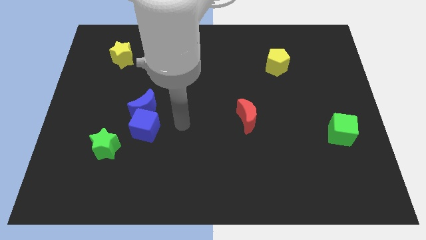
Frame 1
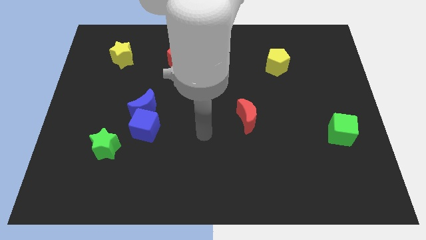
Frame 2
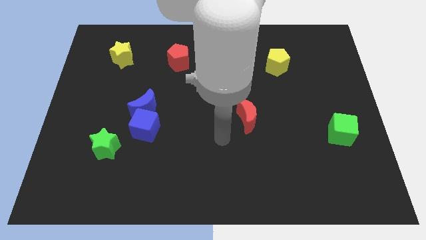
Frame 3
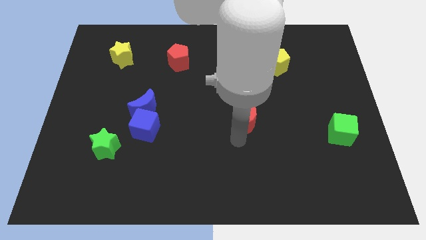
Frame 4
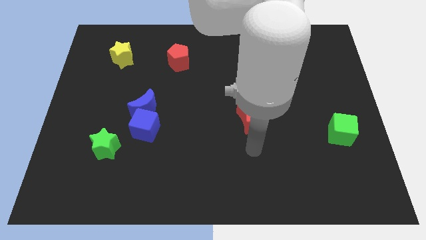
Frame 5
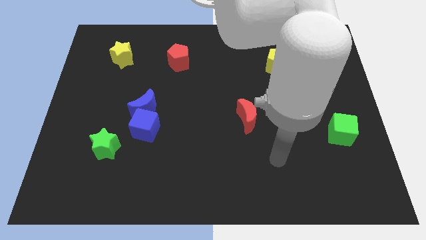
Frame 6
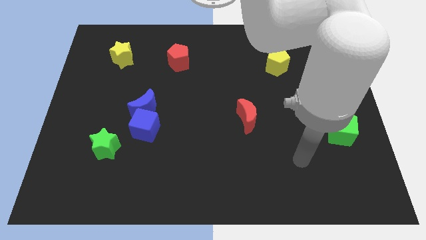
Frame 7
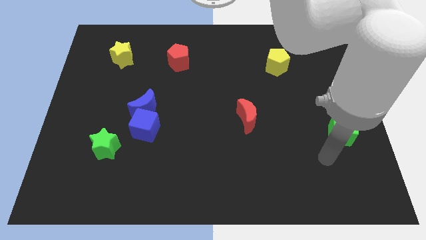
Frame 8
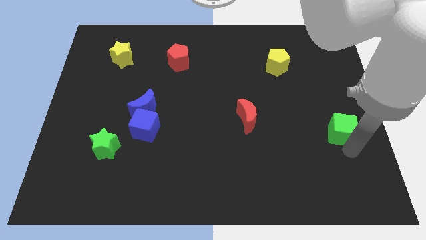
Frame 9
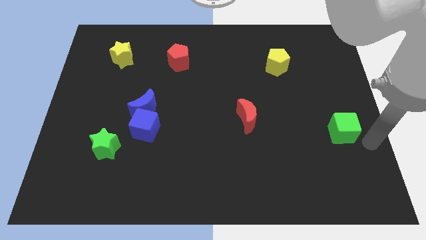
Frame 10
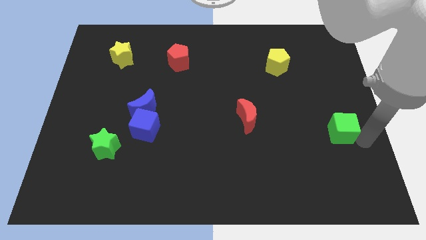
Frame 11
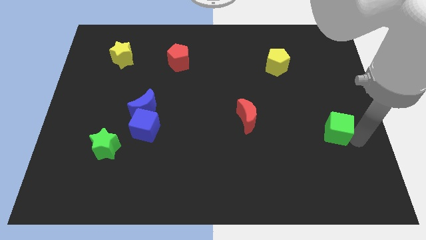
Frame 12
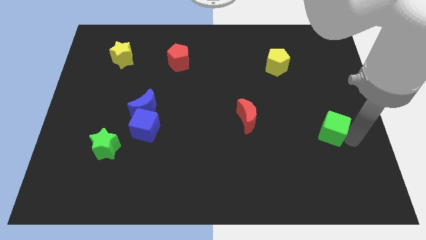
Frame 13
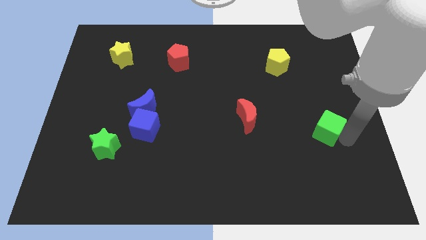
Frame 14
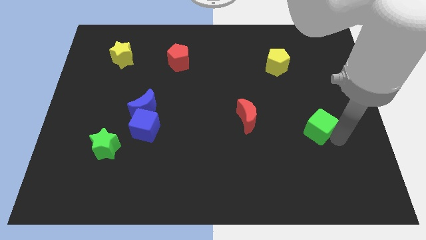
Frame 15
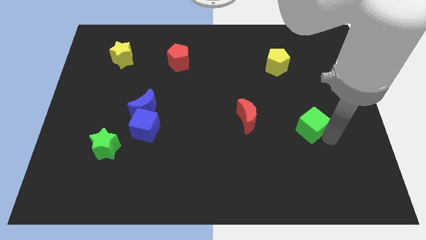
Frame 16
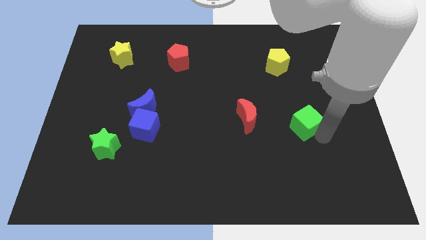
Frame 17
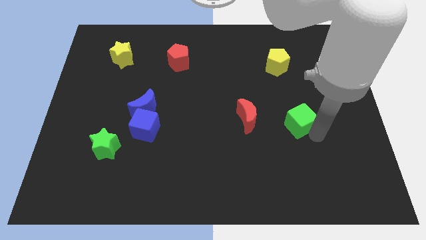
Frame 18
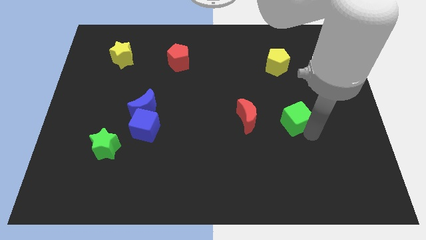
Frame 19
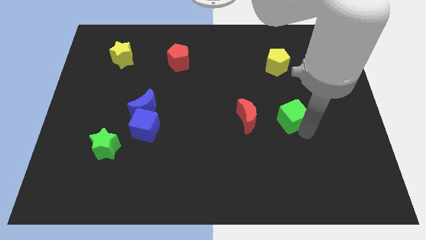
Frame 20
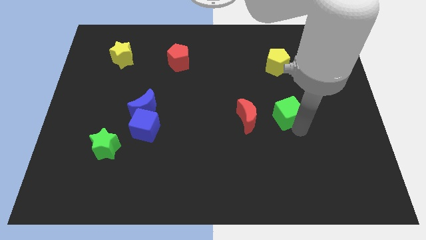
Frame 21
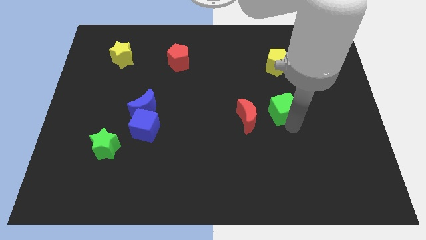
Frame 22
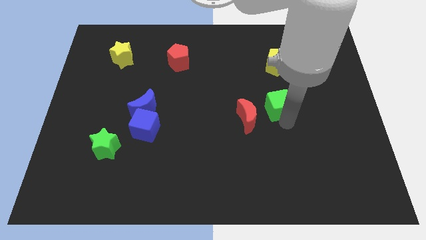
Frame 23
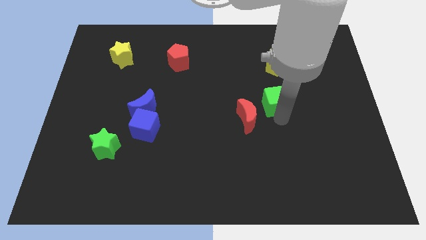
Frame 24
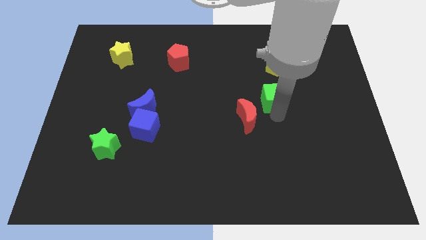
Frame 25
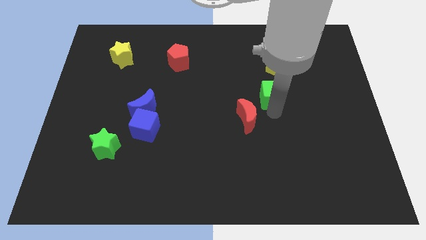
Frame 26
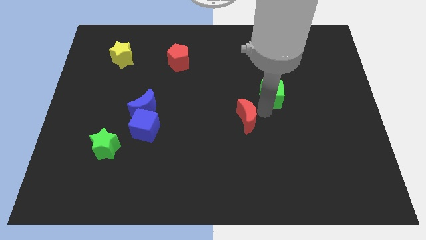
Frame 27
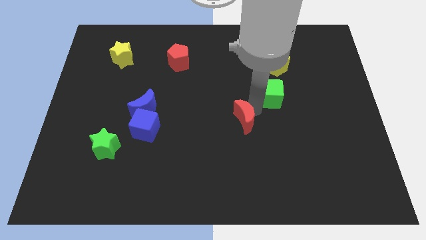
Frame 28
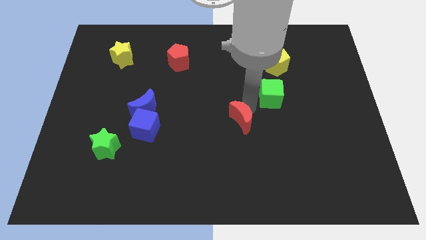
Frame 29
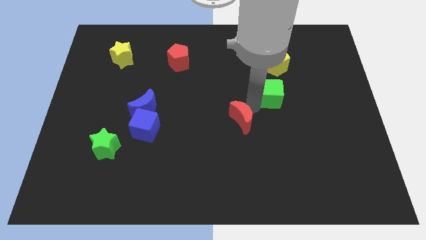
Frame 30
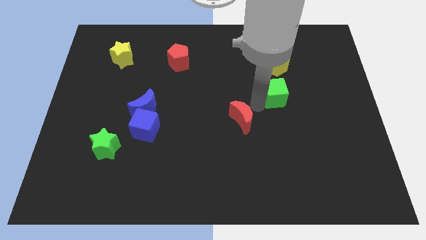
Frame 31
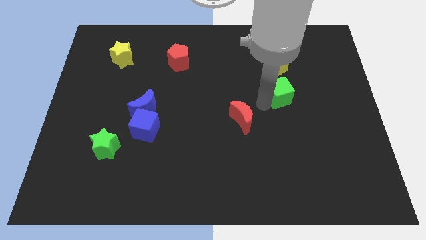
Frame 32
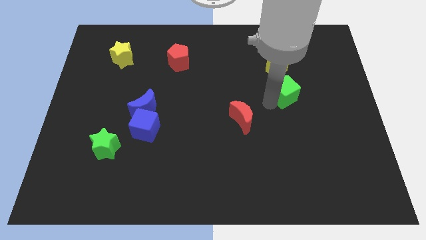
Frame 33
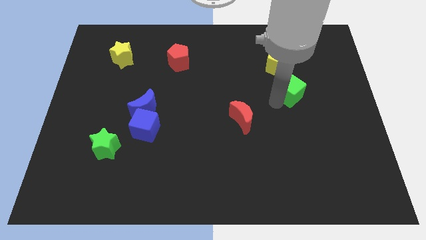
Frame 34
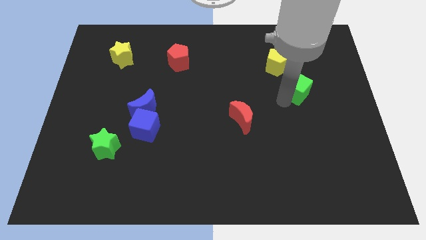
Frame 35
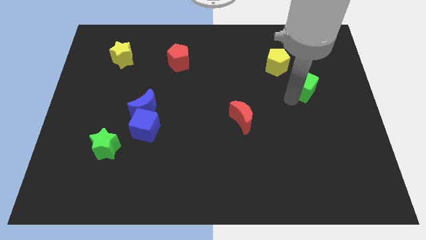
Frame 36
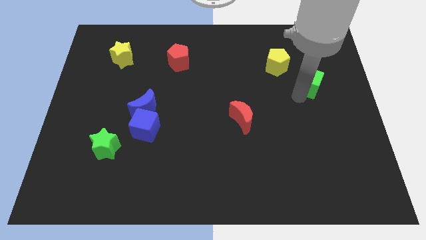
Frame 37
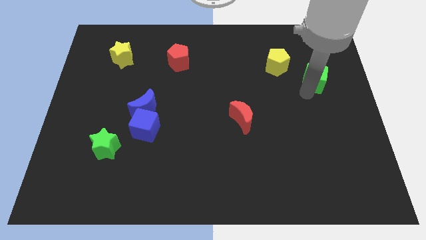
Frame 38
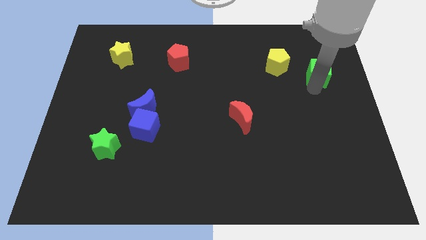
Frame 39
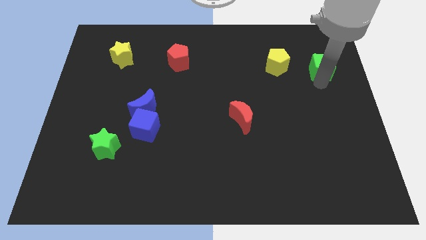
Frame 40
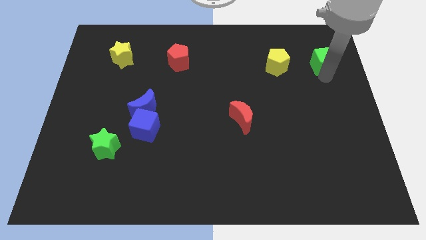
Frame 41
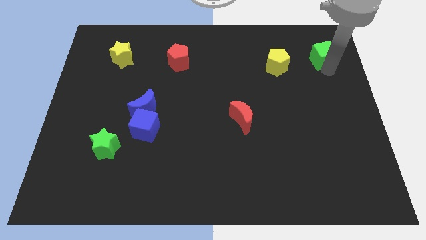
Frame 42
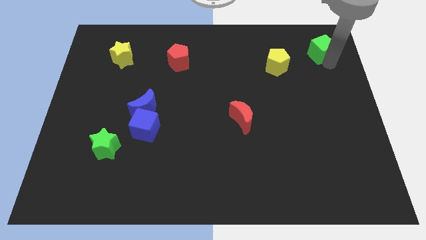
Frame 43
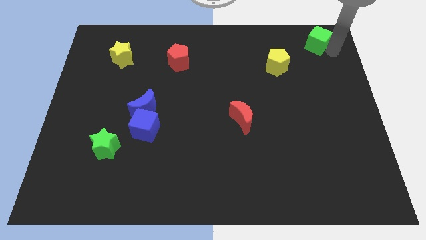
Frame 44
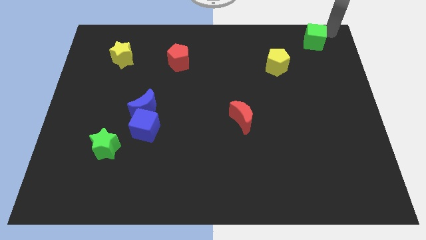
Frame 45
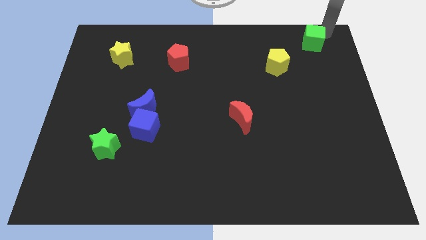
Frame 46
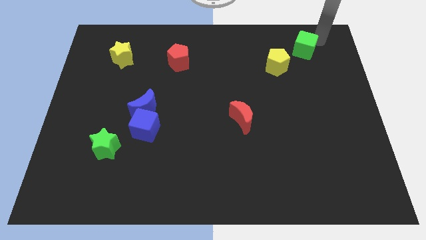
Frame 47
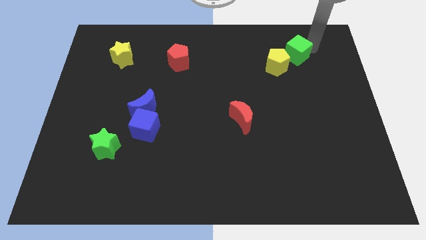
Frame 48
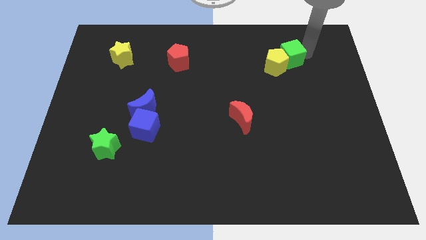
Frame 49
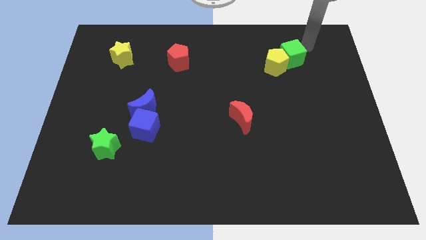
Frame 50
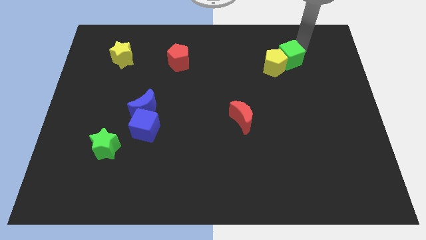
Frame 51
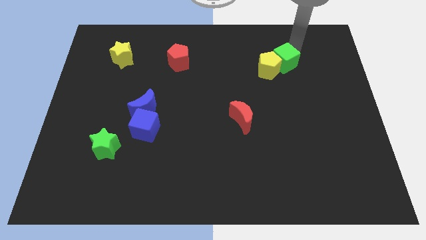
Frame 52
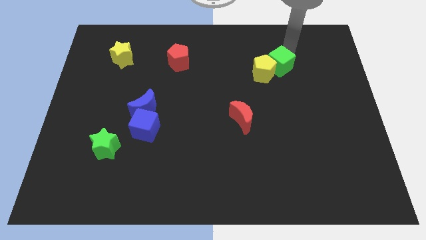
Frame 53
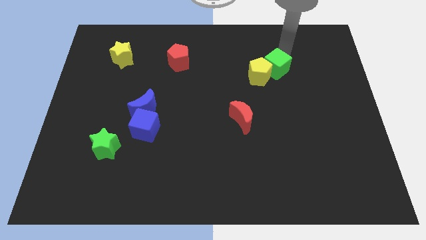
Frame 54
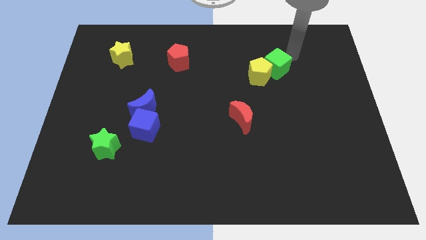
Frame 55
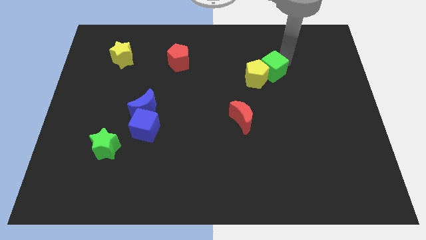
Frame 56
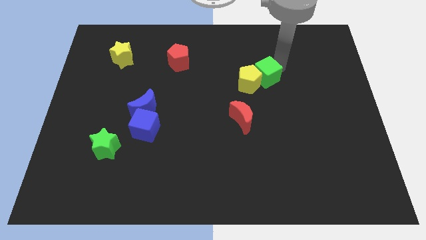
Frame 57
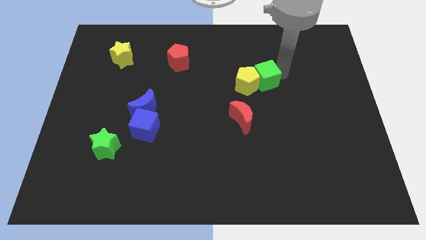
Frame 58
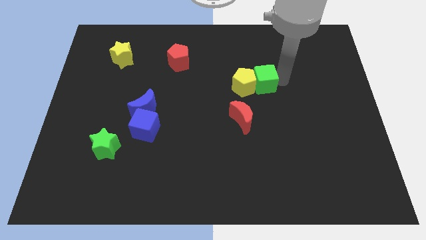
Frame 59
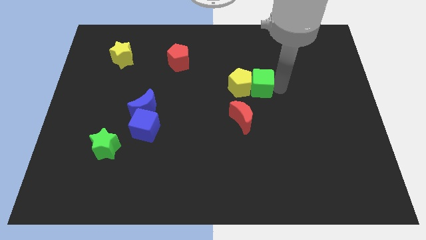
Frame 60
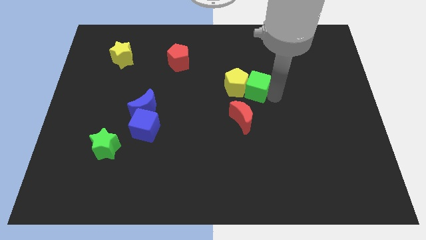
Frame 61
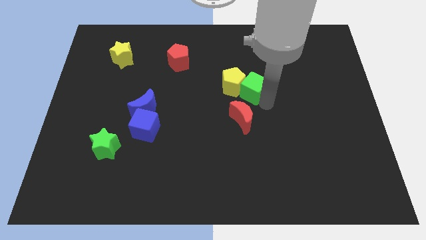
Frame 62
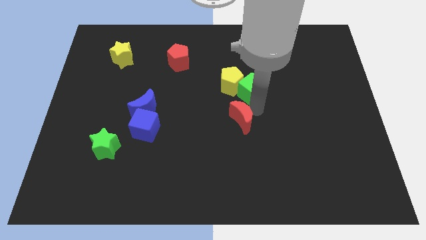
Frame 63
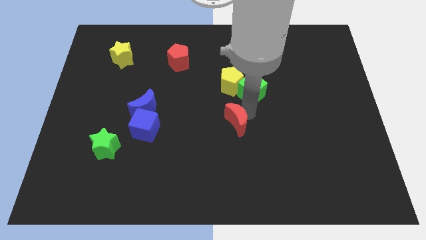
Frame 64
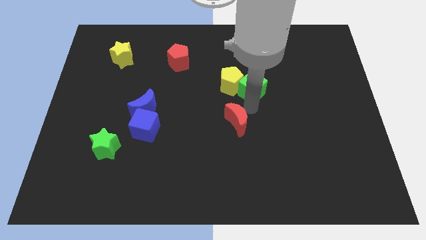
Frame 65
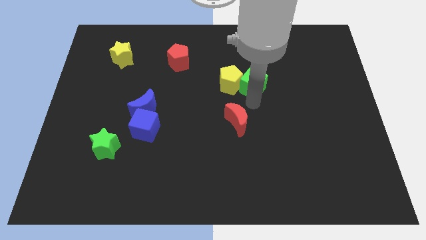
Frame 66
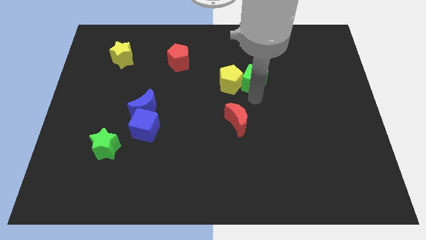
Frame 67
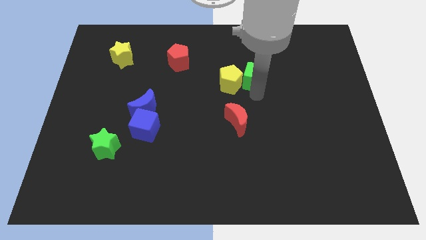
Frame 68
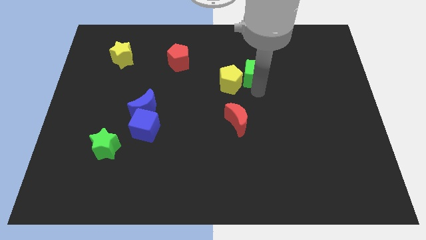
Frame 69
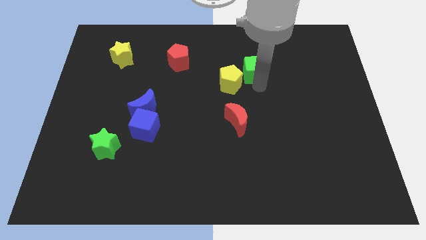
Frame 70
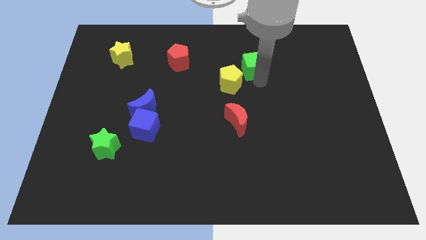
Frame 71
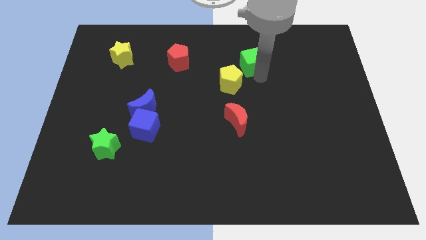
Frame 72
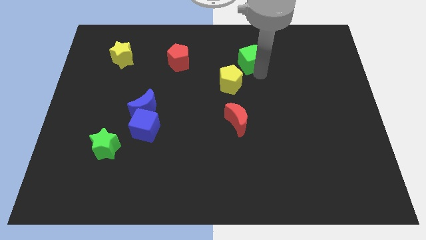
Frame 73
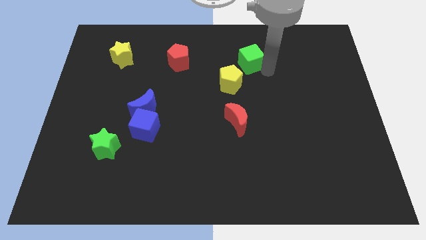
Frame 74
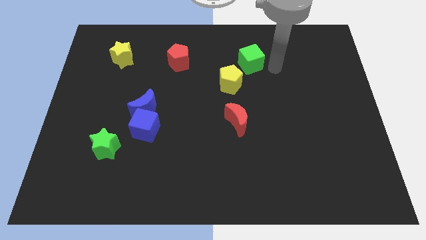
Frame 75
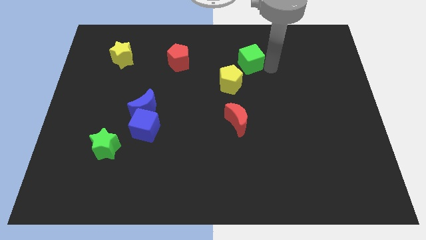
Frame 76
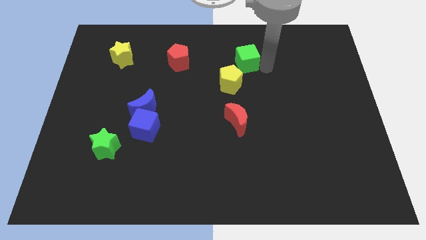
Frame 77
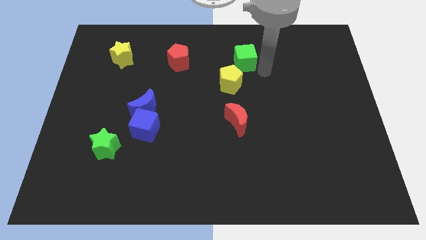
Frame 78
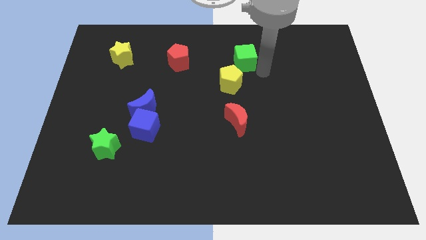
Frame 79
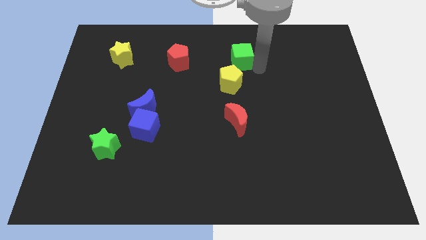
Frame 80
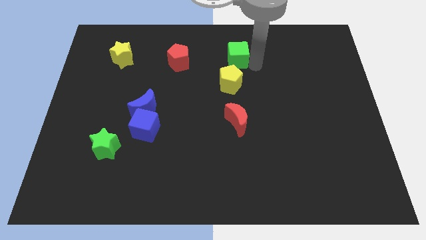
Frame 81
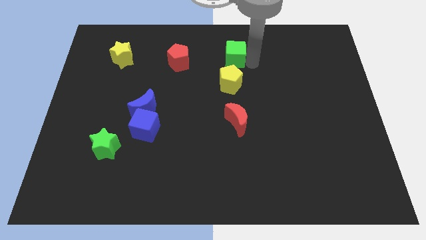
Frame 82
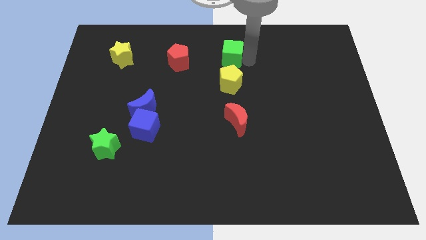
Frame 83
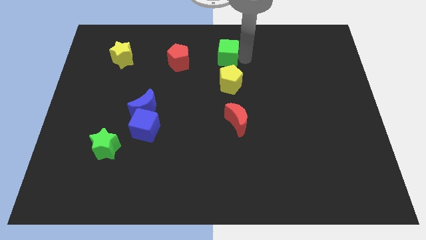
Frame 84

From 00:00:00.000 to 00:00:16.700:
slide the green cube to the top
